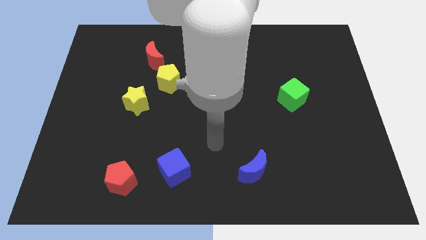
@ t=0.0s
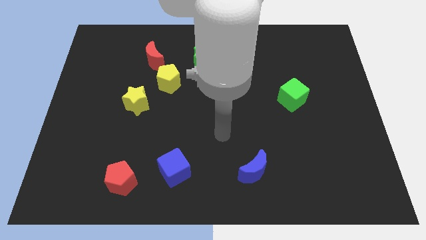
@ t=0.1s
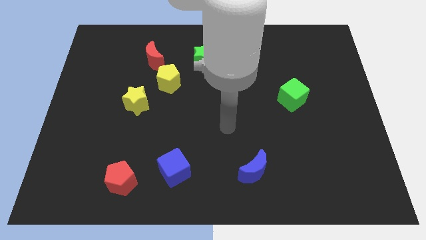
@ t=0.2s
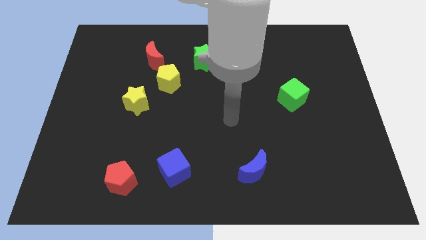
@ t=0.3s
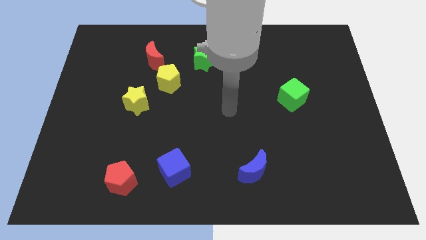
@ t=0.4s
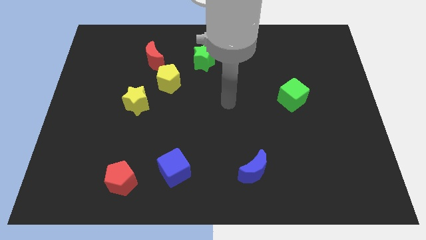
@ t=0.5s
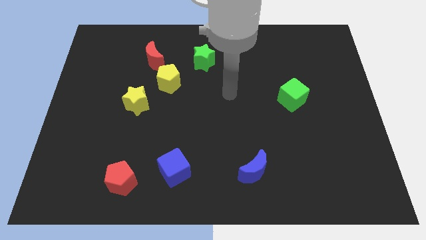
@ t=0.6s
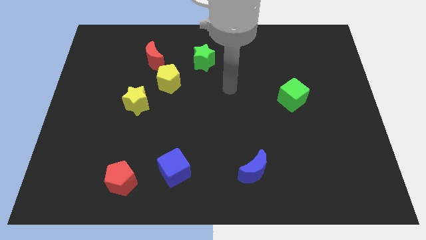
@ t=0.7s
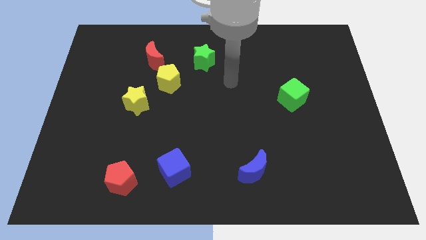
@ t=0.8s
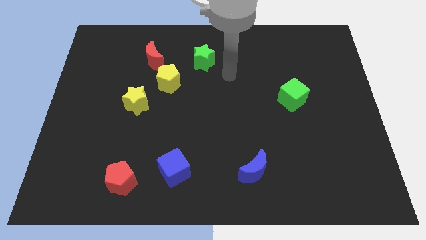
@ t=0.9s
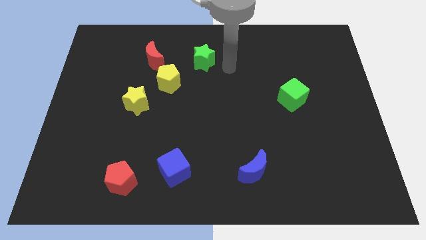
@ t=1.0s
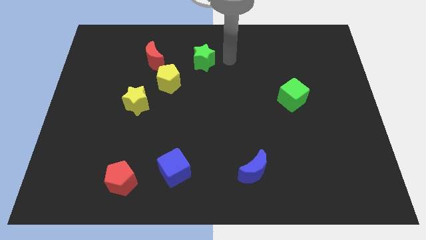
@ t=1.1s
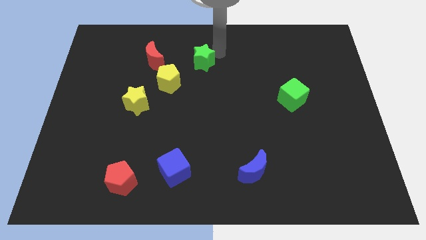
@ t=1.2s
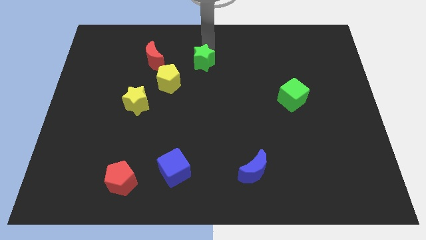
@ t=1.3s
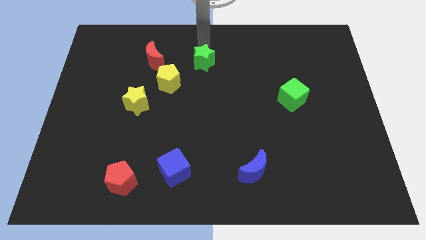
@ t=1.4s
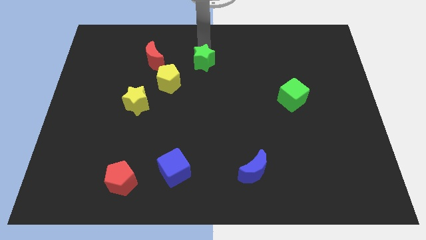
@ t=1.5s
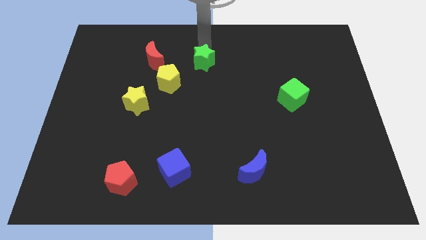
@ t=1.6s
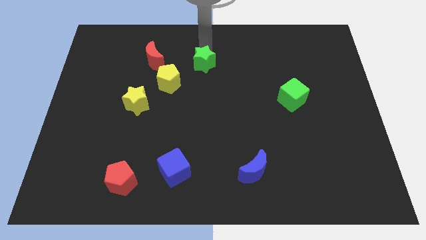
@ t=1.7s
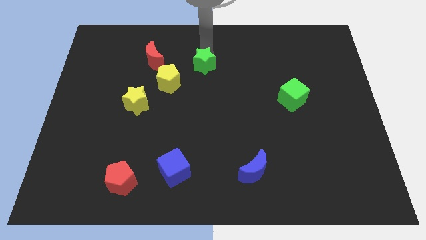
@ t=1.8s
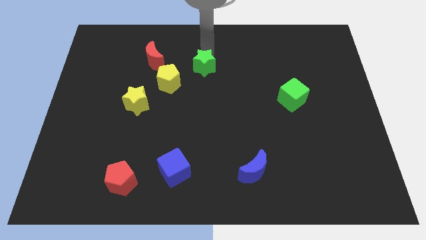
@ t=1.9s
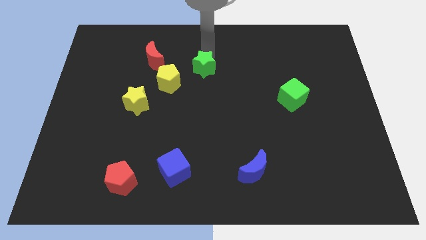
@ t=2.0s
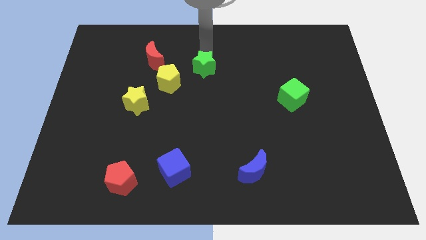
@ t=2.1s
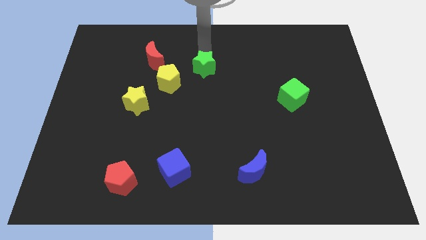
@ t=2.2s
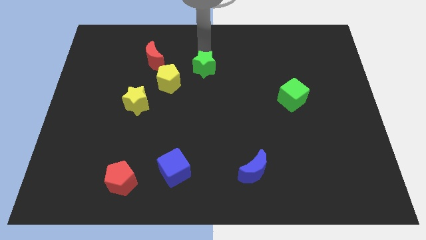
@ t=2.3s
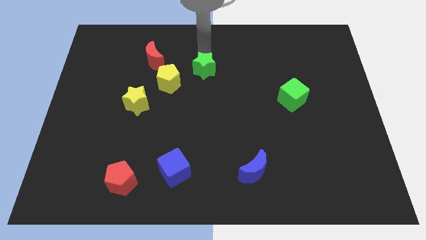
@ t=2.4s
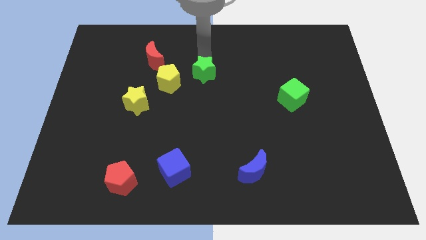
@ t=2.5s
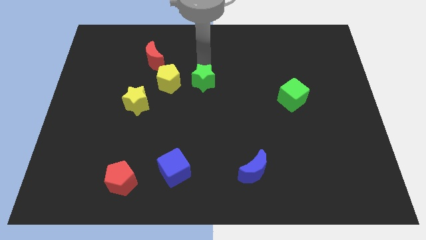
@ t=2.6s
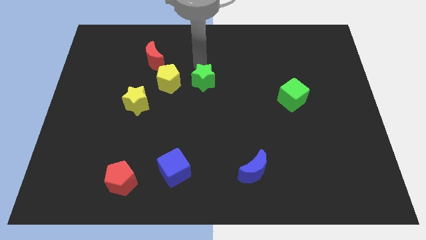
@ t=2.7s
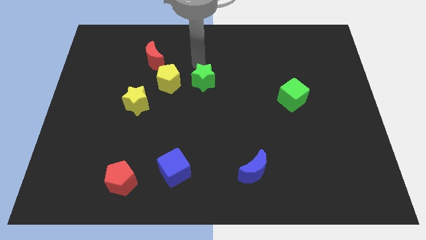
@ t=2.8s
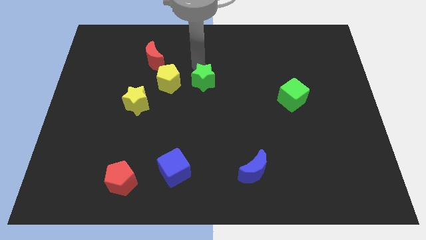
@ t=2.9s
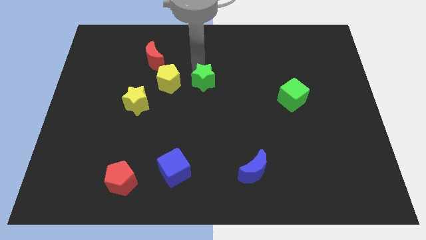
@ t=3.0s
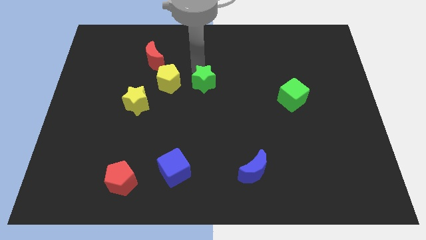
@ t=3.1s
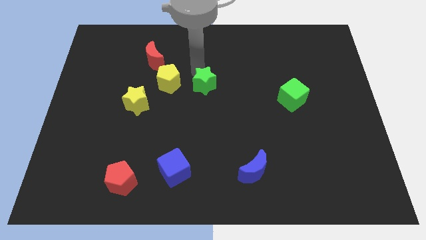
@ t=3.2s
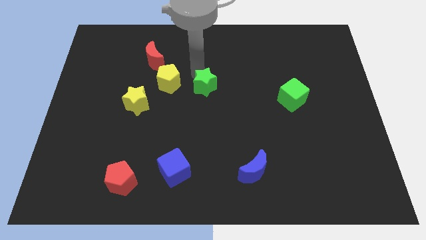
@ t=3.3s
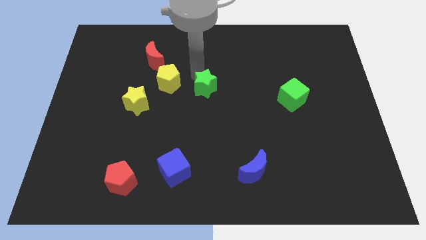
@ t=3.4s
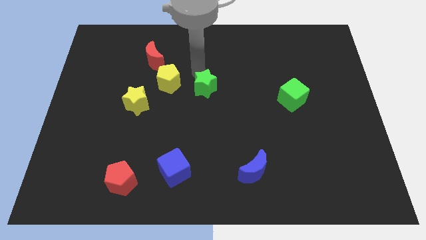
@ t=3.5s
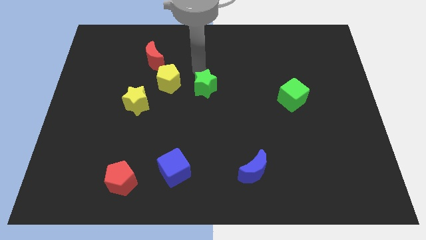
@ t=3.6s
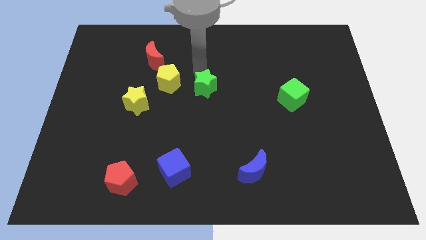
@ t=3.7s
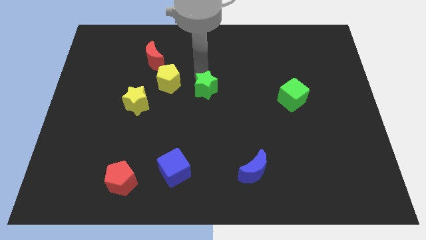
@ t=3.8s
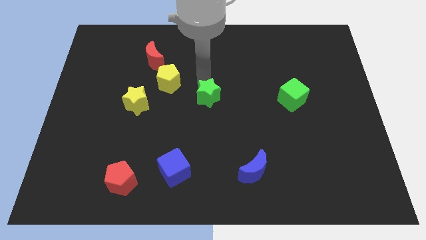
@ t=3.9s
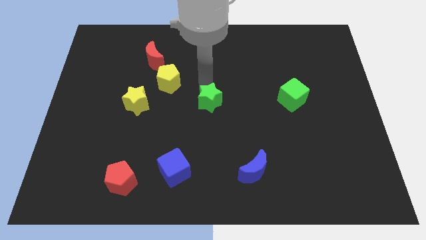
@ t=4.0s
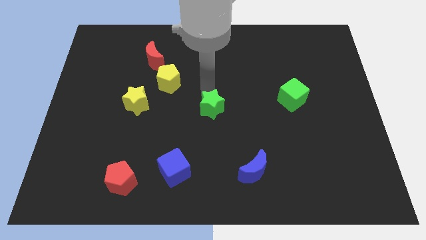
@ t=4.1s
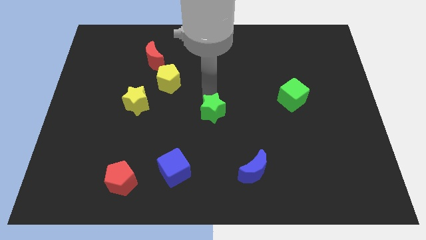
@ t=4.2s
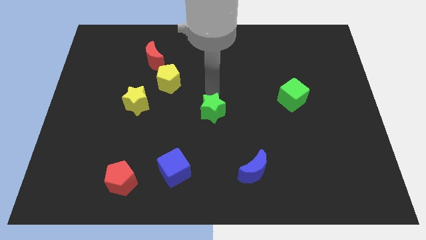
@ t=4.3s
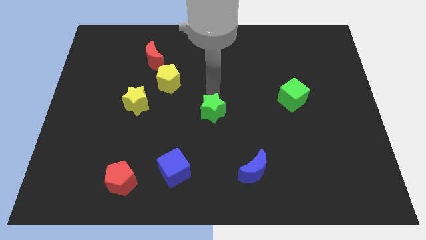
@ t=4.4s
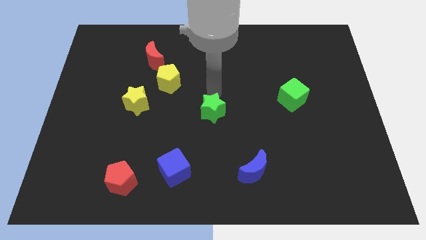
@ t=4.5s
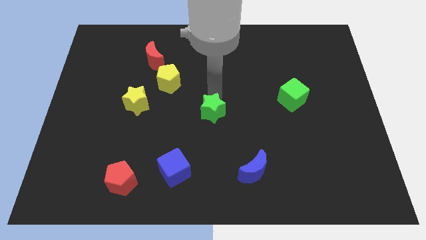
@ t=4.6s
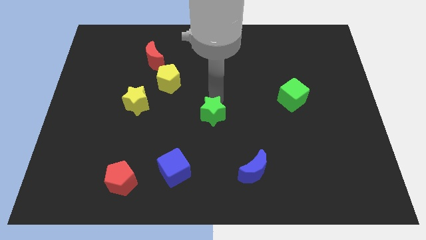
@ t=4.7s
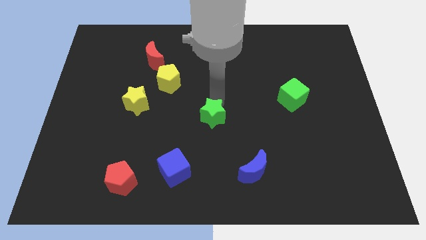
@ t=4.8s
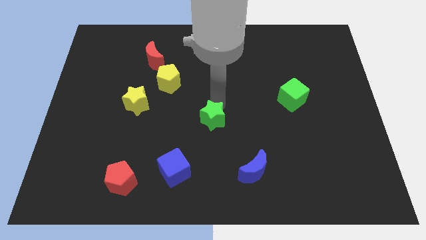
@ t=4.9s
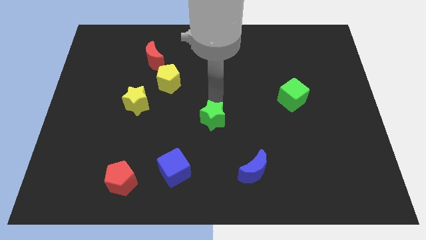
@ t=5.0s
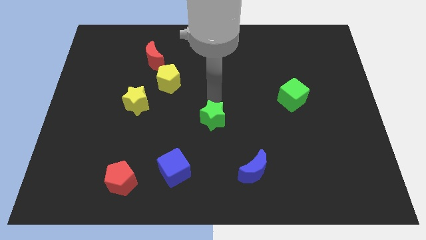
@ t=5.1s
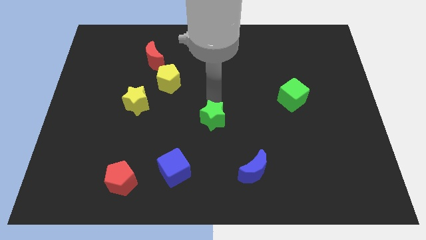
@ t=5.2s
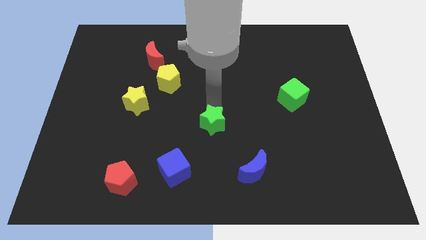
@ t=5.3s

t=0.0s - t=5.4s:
slide the green star downwards

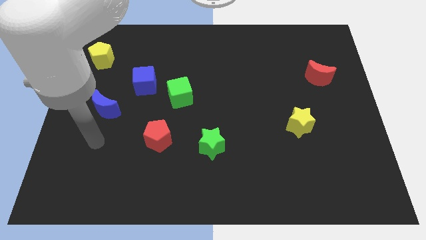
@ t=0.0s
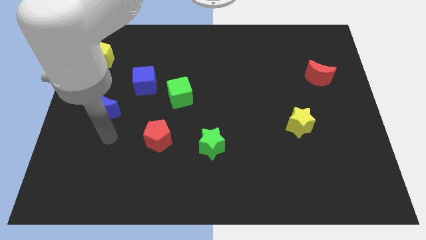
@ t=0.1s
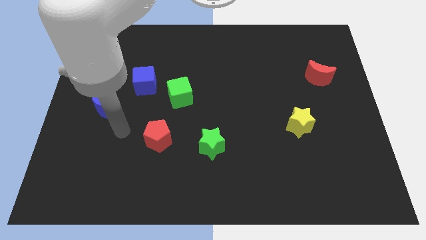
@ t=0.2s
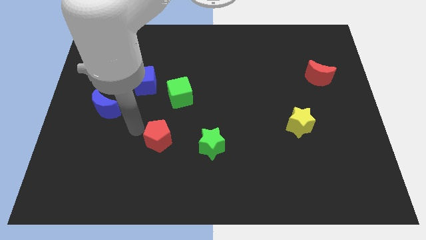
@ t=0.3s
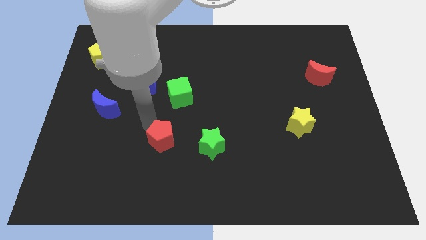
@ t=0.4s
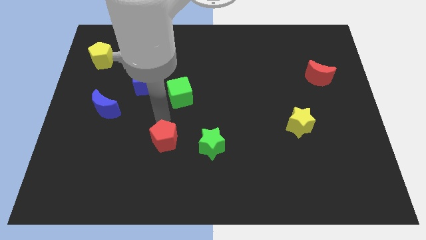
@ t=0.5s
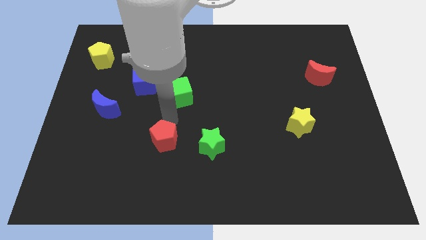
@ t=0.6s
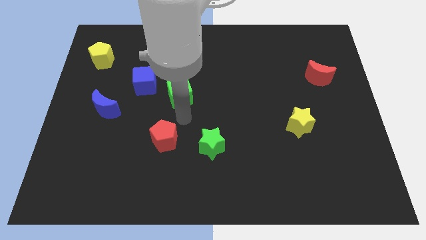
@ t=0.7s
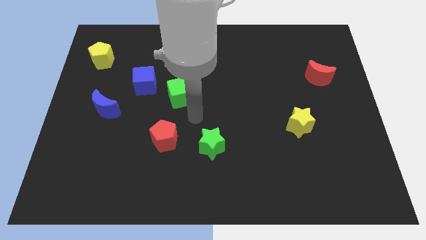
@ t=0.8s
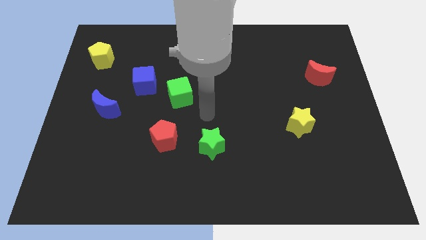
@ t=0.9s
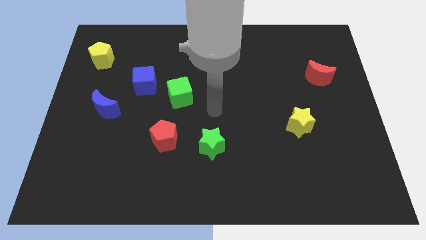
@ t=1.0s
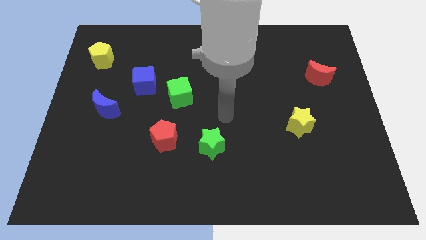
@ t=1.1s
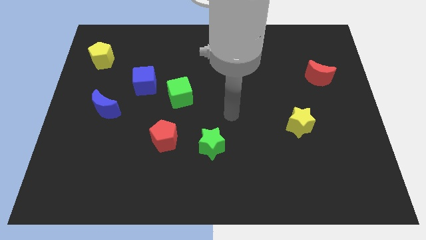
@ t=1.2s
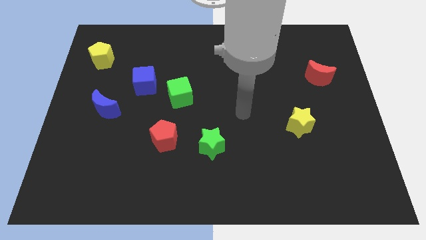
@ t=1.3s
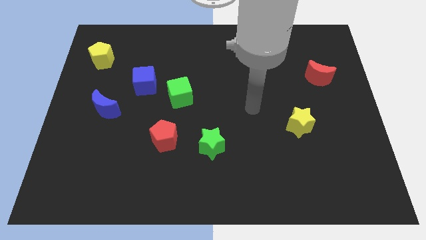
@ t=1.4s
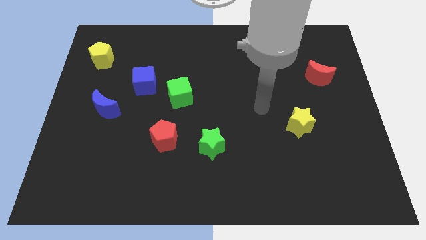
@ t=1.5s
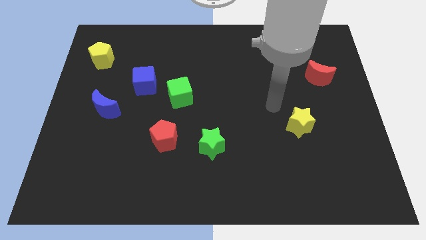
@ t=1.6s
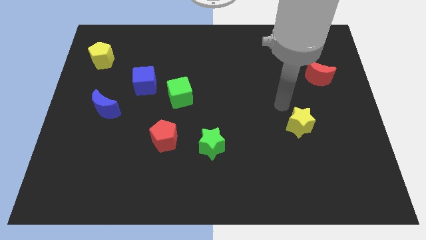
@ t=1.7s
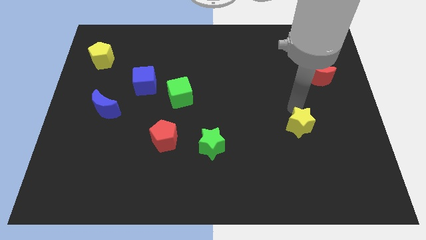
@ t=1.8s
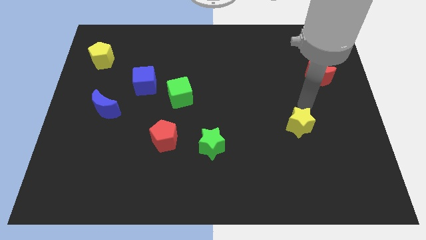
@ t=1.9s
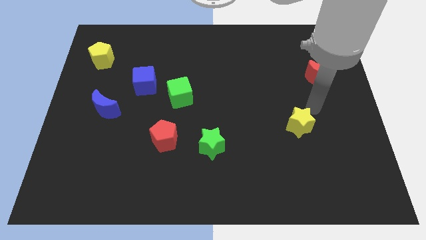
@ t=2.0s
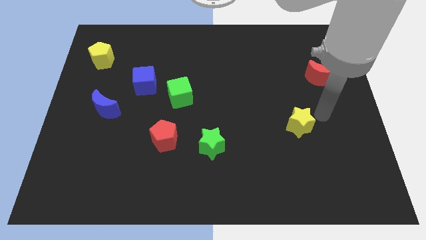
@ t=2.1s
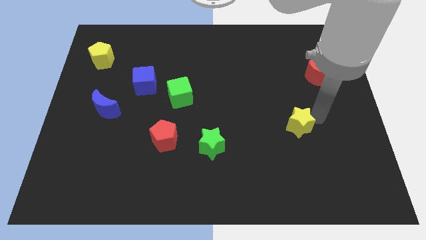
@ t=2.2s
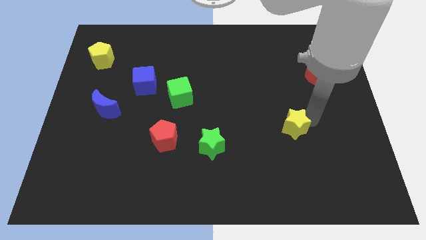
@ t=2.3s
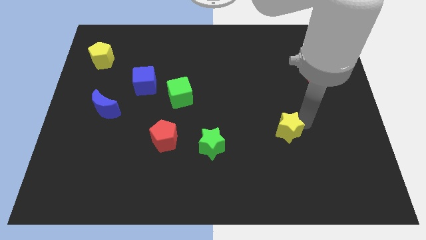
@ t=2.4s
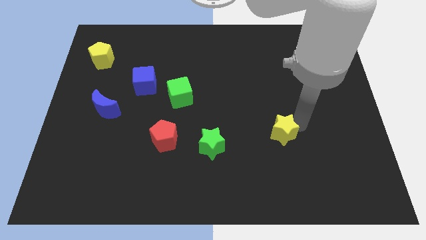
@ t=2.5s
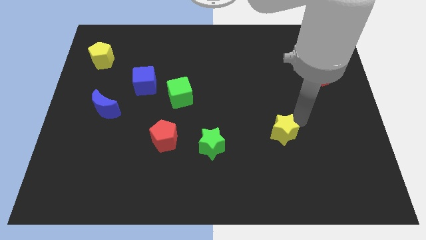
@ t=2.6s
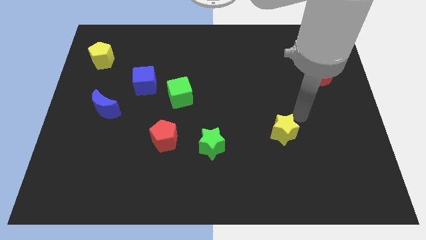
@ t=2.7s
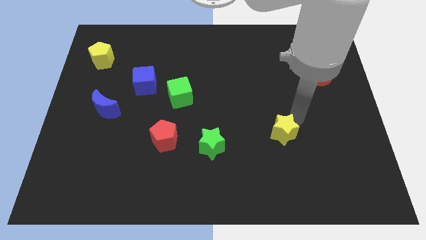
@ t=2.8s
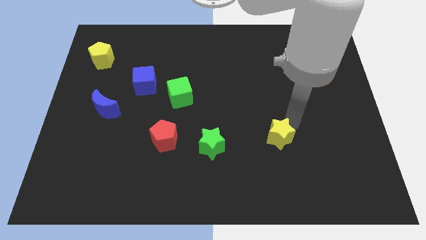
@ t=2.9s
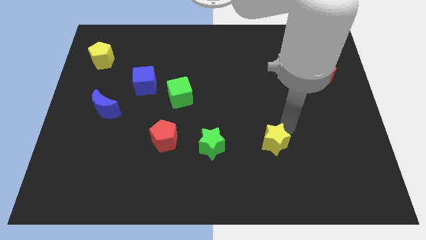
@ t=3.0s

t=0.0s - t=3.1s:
slide the yellow star a little diagonally down and left
